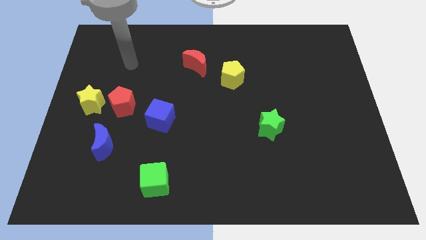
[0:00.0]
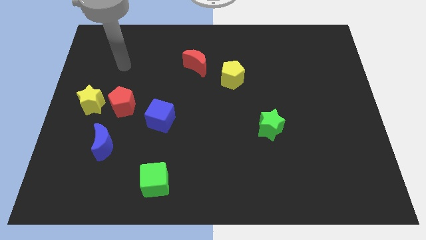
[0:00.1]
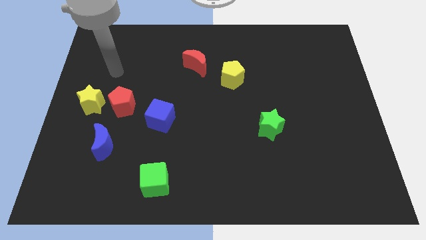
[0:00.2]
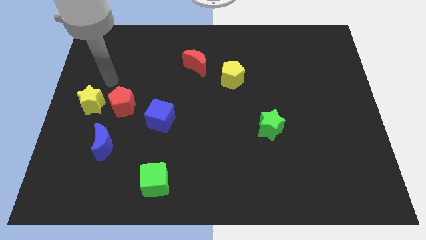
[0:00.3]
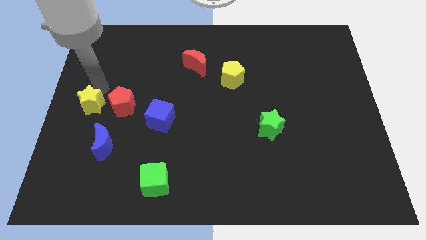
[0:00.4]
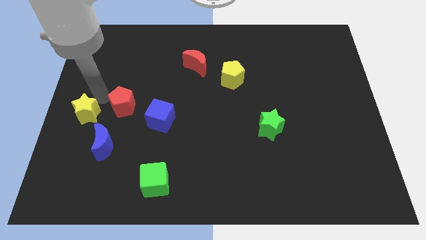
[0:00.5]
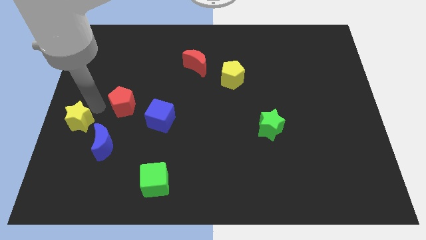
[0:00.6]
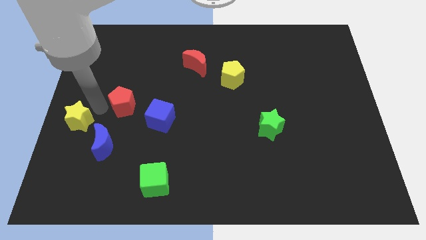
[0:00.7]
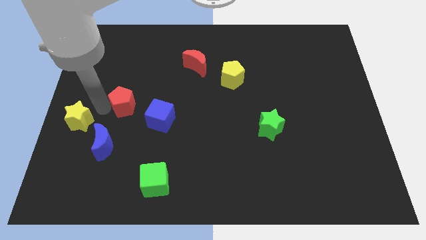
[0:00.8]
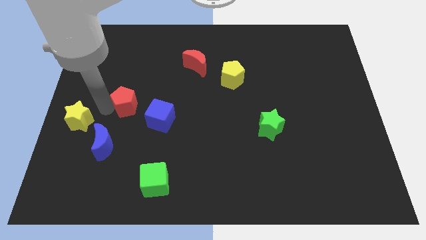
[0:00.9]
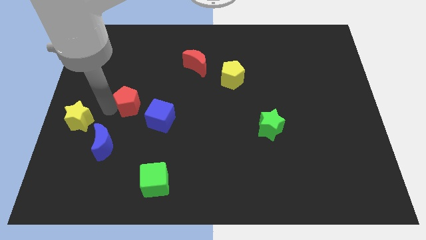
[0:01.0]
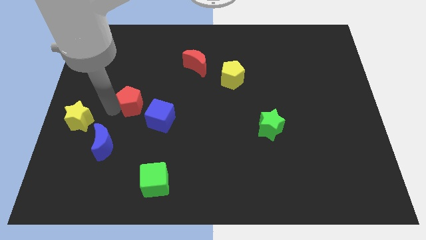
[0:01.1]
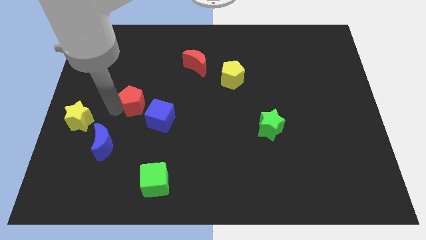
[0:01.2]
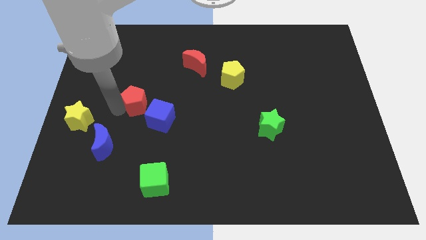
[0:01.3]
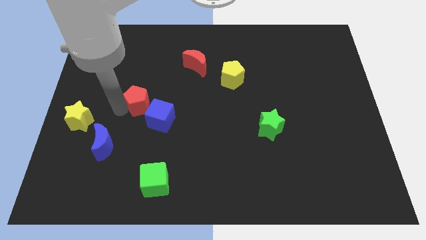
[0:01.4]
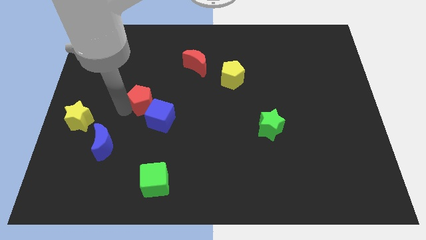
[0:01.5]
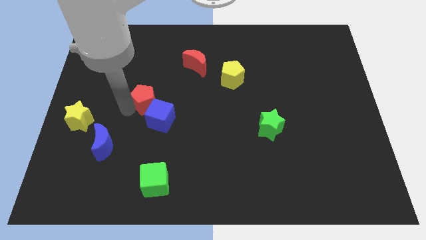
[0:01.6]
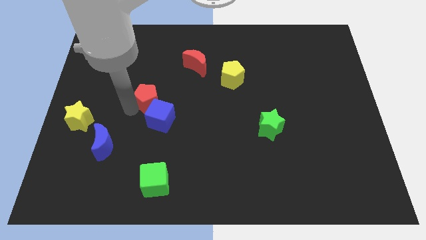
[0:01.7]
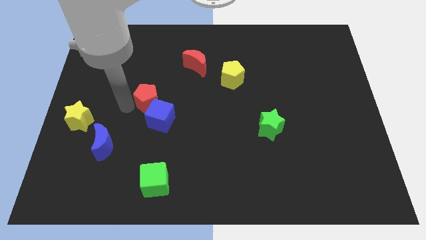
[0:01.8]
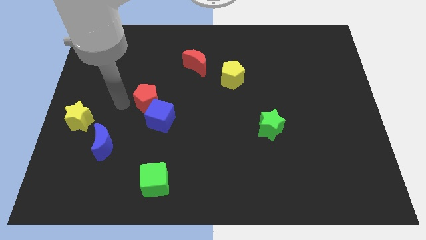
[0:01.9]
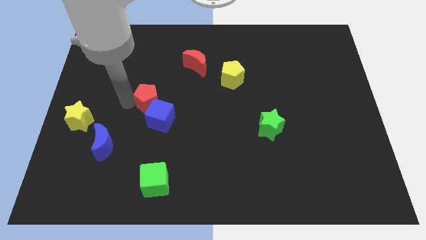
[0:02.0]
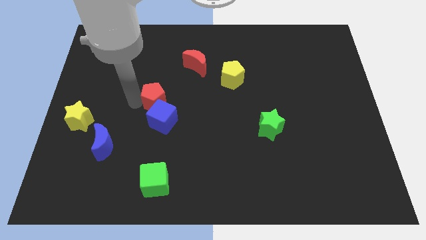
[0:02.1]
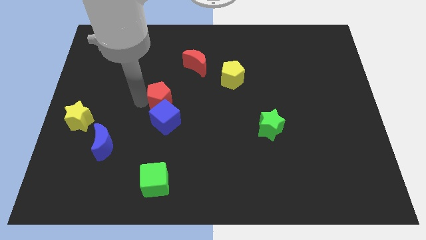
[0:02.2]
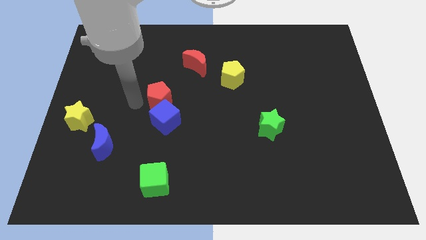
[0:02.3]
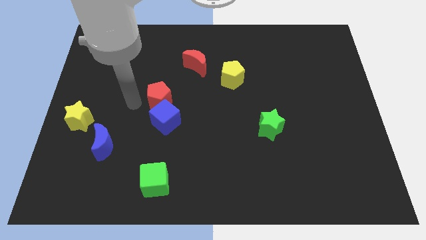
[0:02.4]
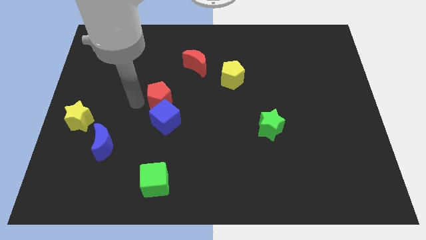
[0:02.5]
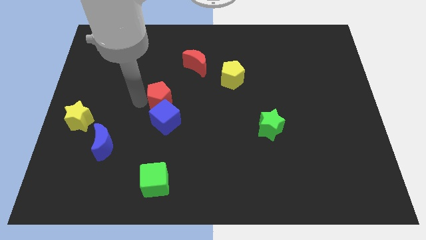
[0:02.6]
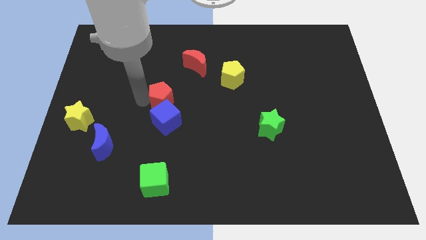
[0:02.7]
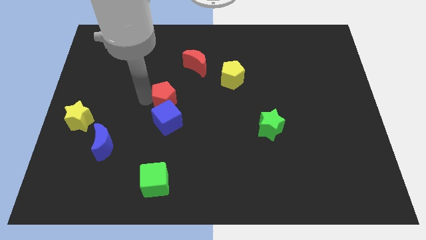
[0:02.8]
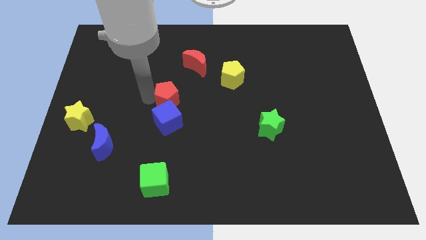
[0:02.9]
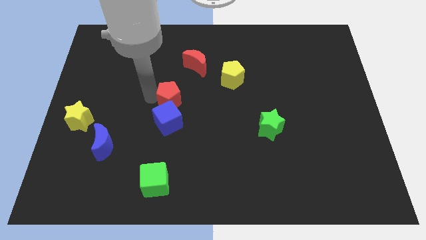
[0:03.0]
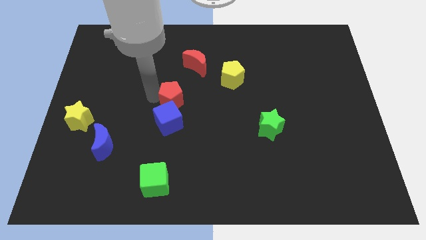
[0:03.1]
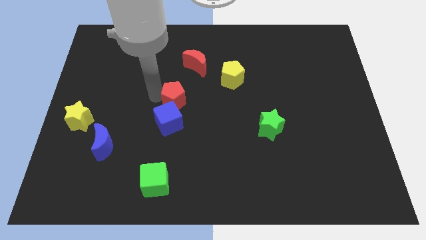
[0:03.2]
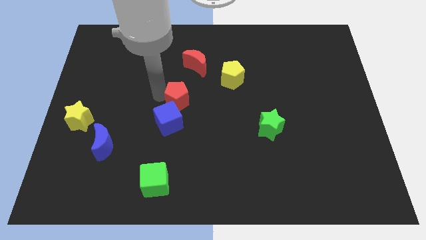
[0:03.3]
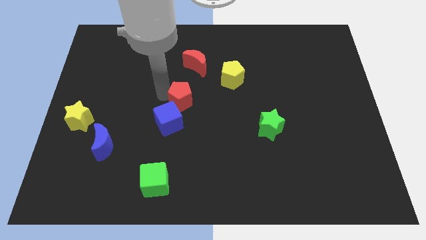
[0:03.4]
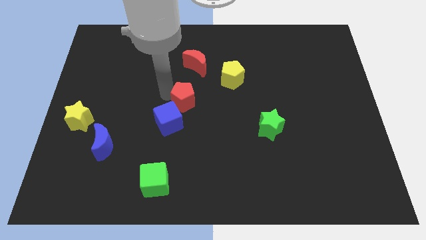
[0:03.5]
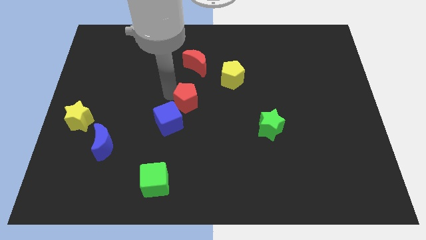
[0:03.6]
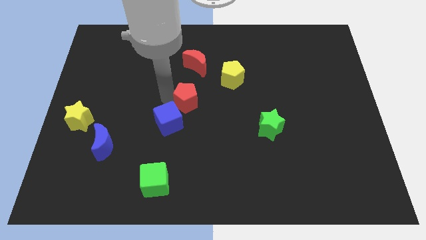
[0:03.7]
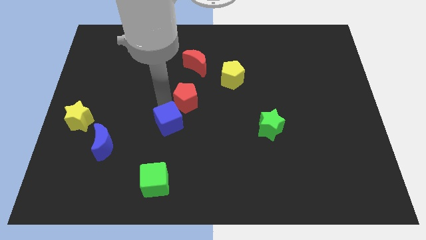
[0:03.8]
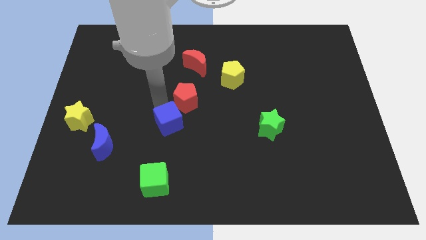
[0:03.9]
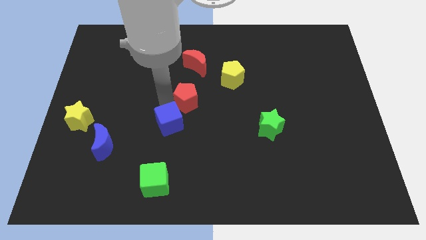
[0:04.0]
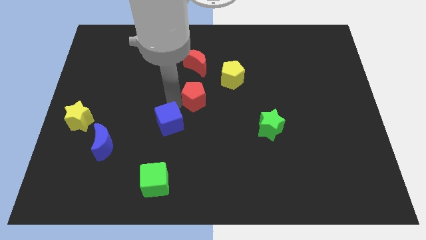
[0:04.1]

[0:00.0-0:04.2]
move the red pentagon diagonally down and to the left of the yellow pentagon

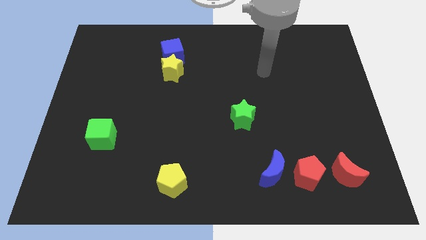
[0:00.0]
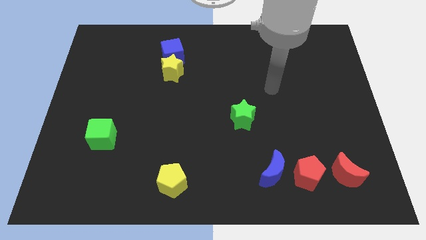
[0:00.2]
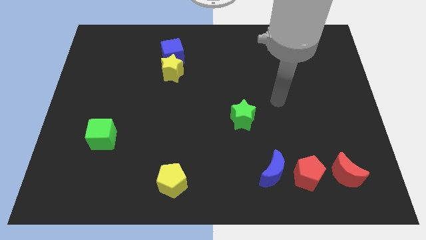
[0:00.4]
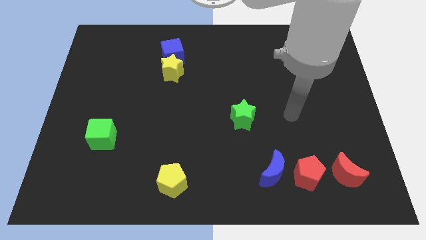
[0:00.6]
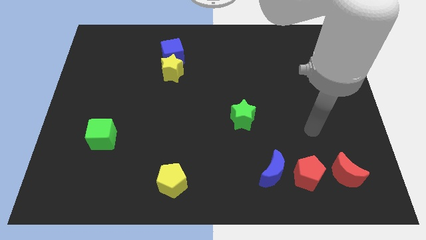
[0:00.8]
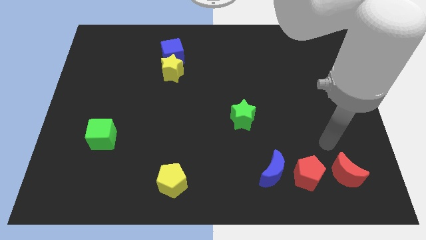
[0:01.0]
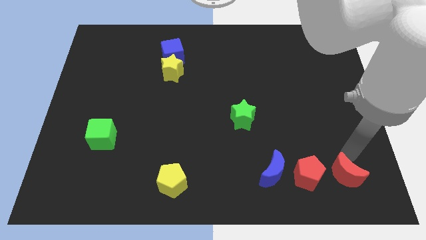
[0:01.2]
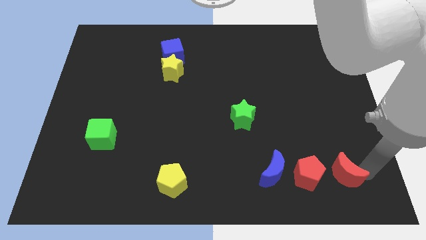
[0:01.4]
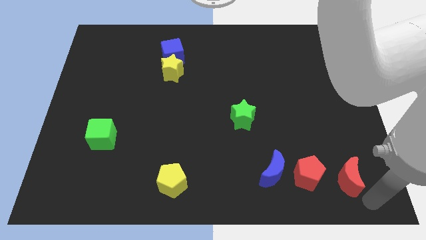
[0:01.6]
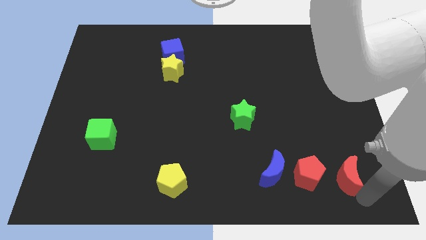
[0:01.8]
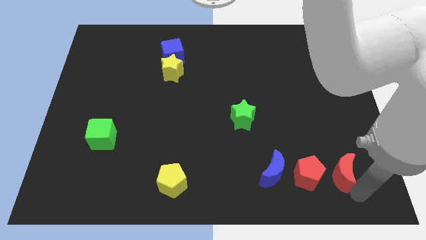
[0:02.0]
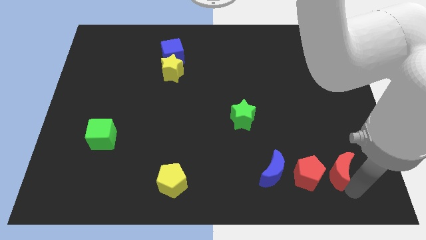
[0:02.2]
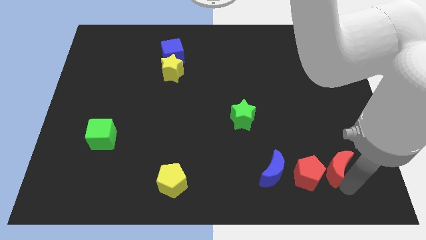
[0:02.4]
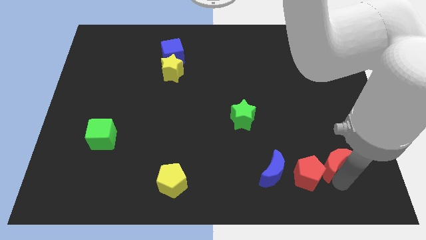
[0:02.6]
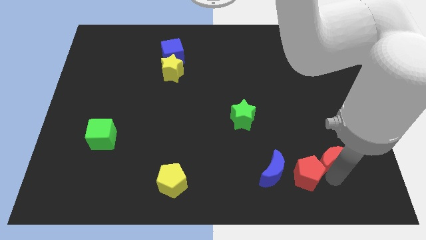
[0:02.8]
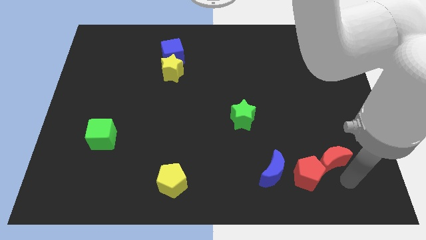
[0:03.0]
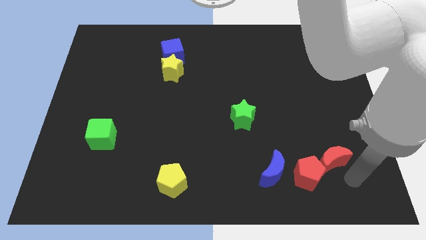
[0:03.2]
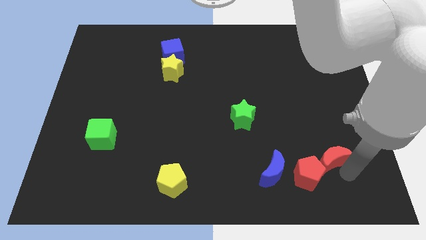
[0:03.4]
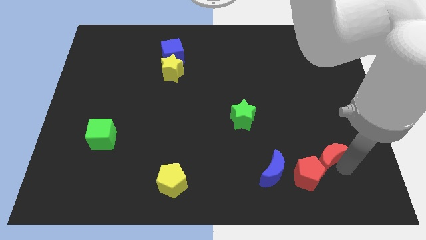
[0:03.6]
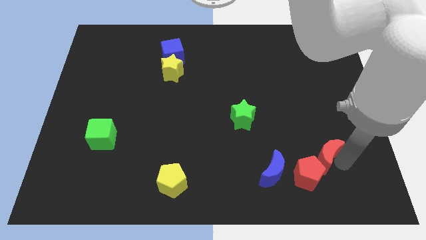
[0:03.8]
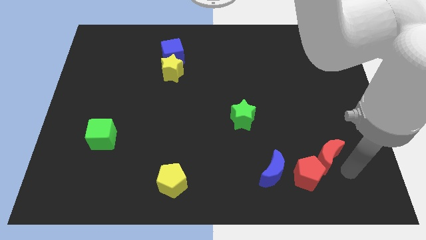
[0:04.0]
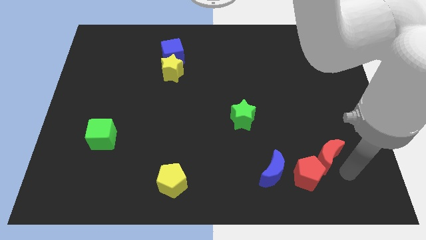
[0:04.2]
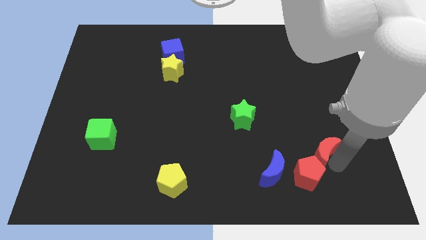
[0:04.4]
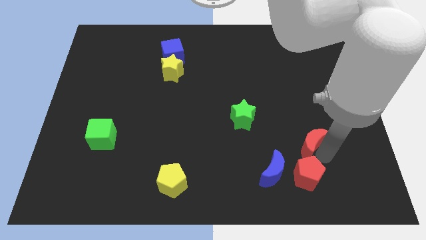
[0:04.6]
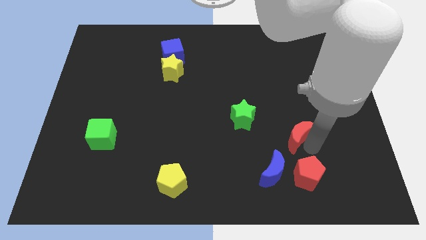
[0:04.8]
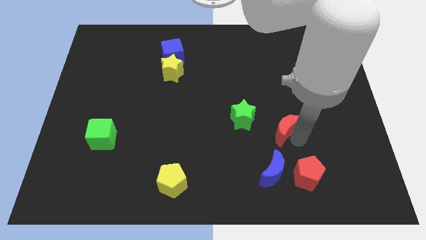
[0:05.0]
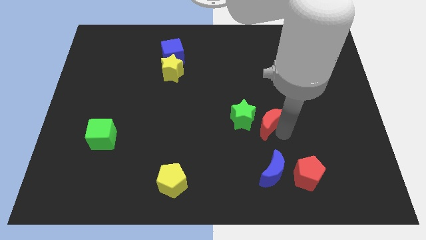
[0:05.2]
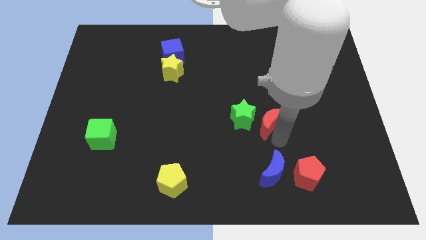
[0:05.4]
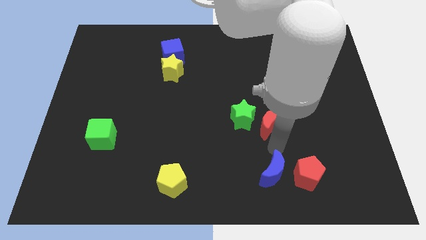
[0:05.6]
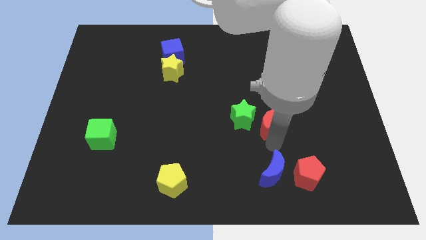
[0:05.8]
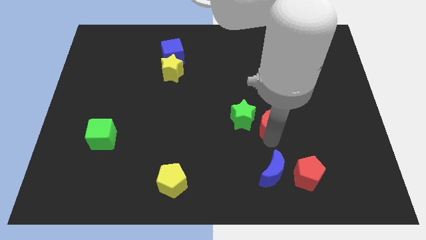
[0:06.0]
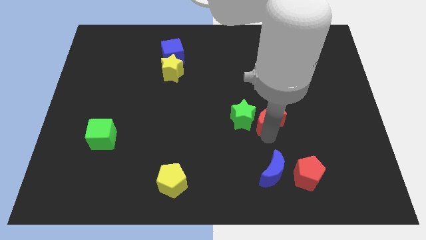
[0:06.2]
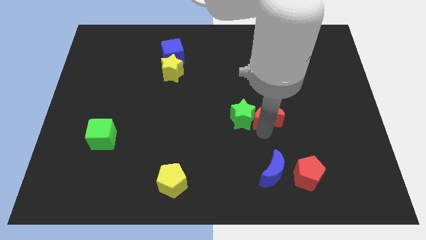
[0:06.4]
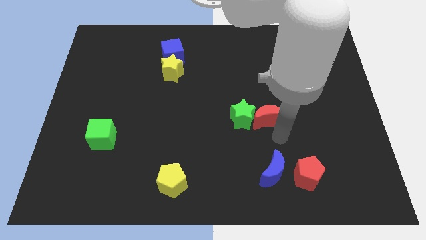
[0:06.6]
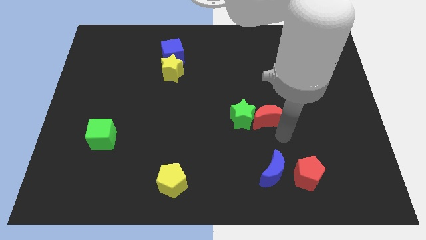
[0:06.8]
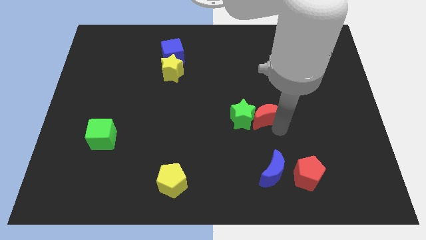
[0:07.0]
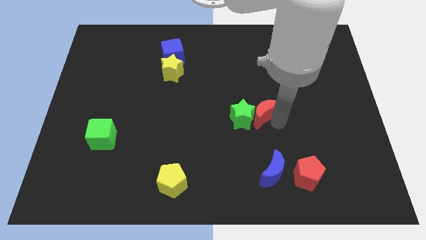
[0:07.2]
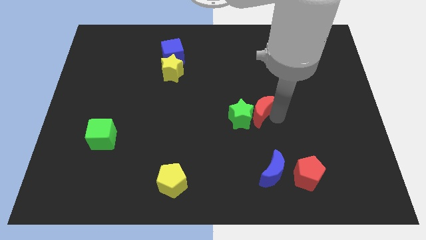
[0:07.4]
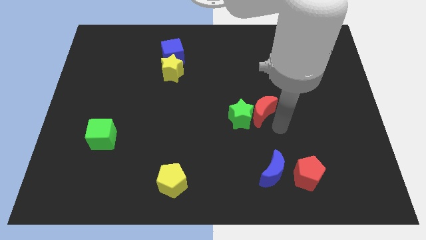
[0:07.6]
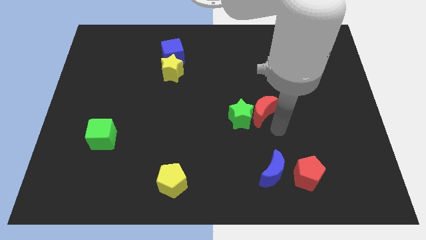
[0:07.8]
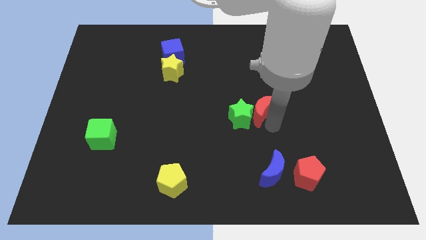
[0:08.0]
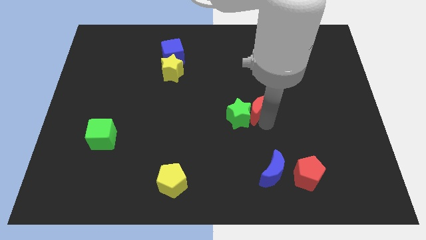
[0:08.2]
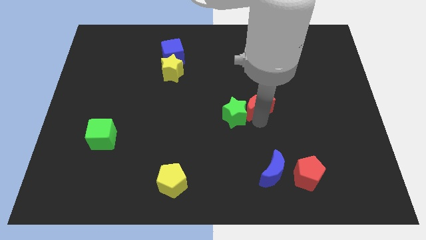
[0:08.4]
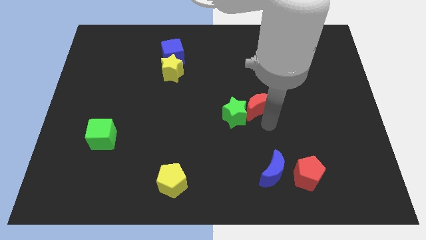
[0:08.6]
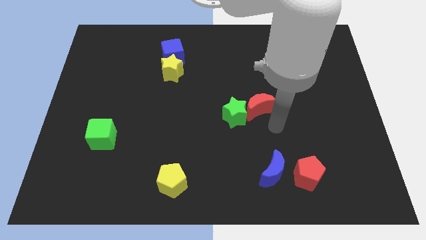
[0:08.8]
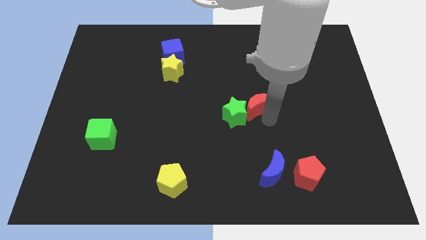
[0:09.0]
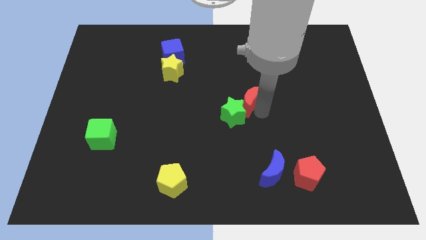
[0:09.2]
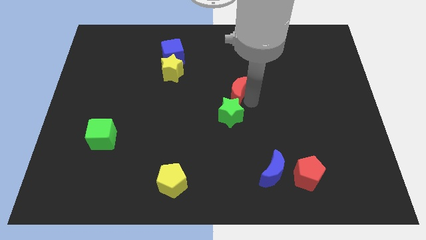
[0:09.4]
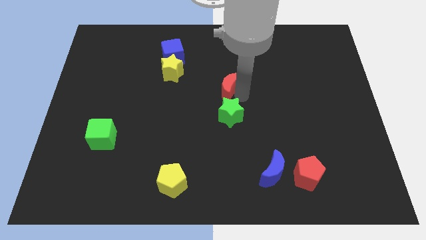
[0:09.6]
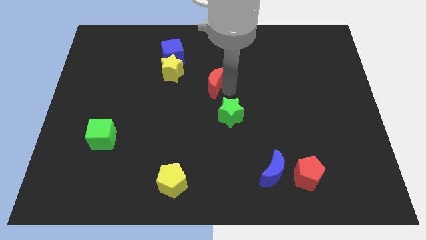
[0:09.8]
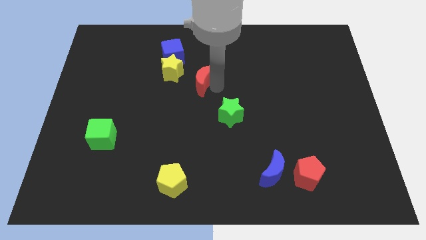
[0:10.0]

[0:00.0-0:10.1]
put the red moon to the bottom right of the blue cube
